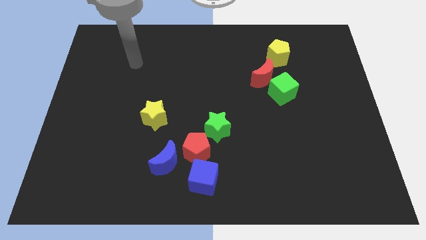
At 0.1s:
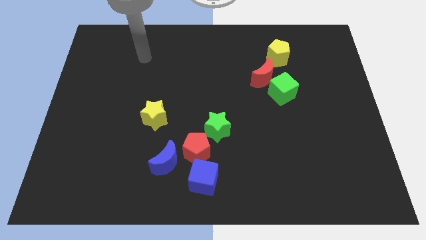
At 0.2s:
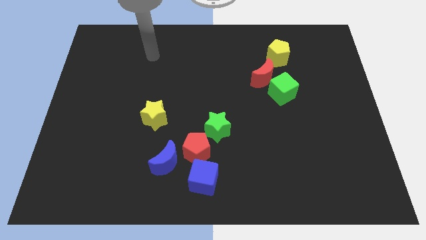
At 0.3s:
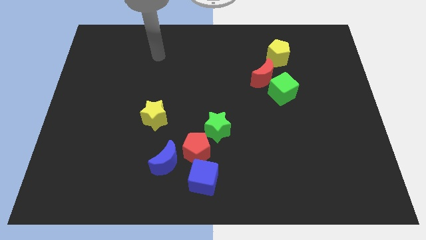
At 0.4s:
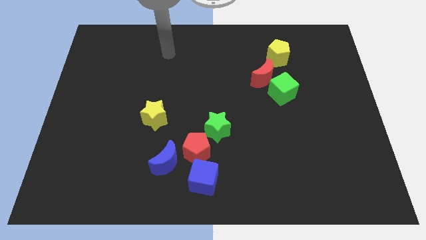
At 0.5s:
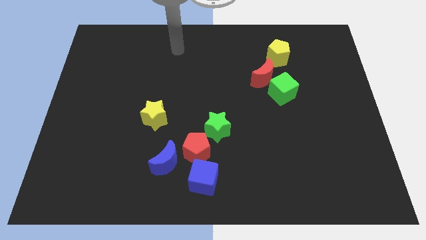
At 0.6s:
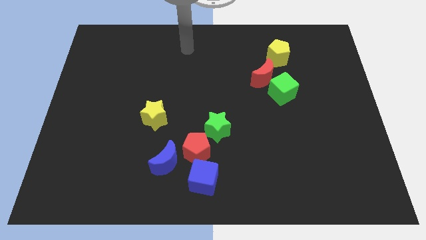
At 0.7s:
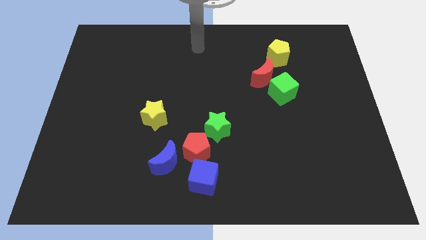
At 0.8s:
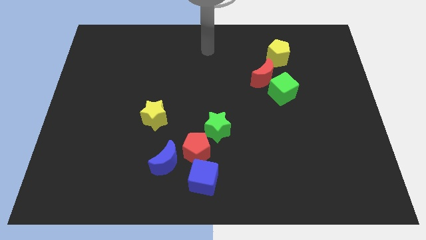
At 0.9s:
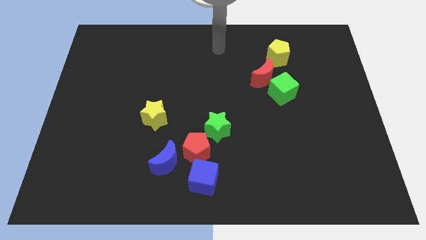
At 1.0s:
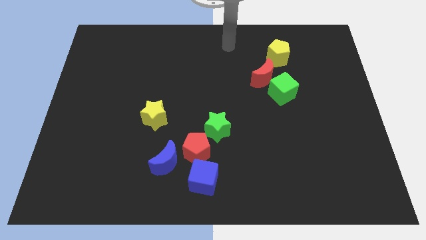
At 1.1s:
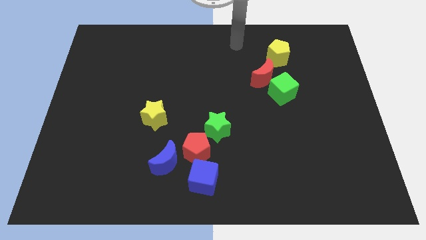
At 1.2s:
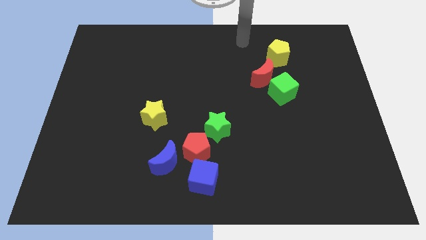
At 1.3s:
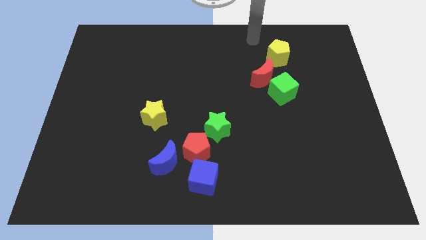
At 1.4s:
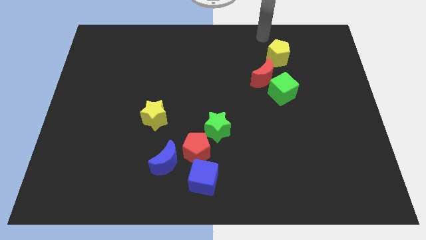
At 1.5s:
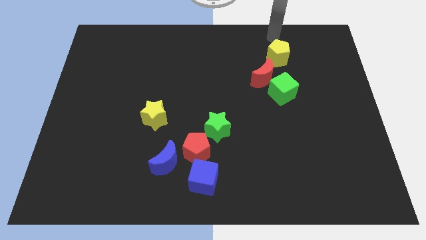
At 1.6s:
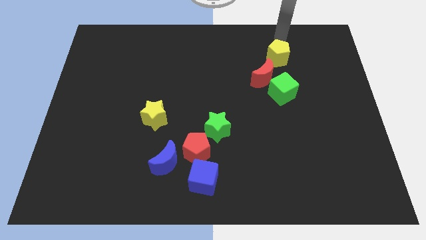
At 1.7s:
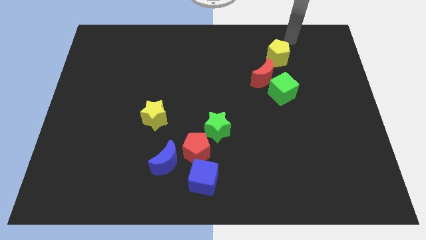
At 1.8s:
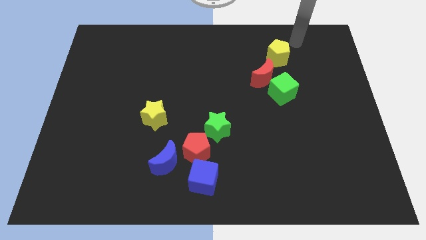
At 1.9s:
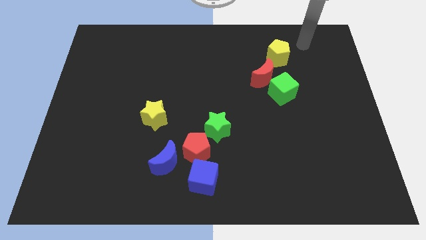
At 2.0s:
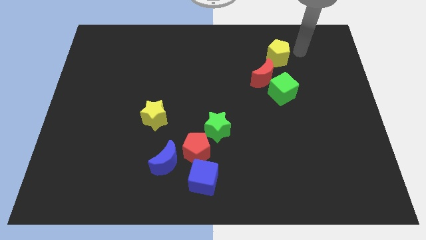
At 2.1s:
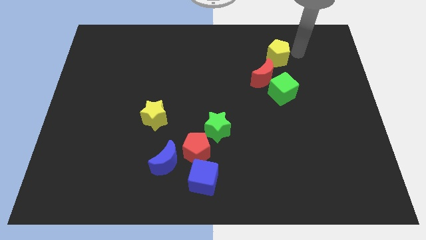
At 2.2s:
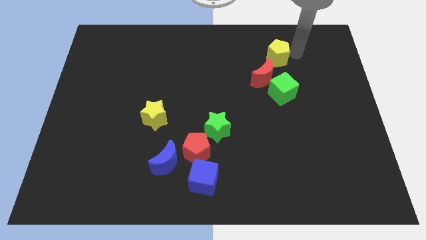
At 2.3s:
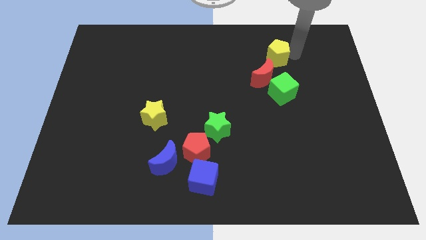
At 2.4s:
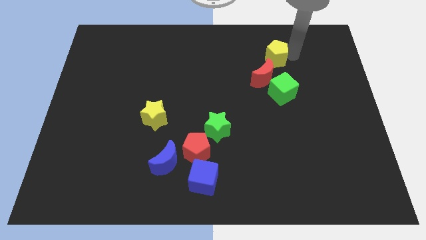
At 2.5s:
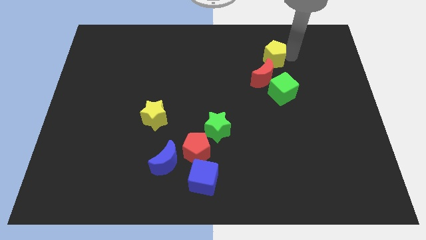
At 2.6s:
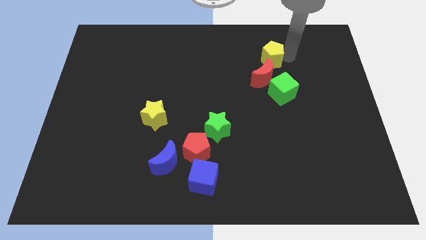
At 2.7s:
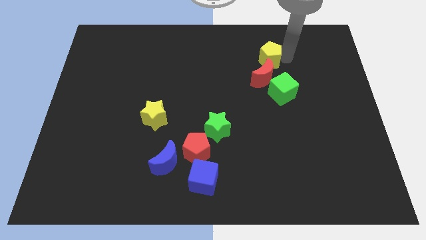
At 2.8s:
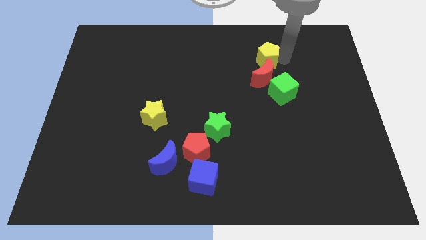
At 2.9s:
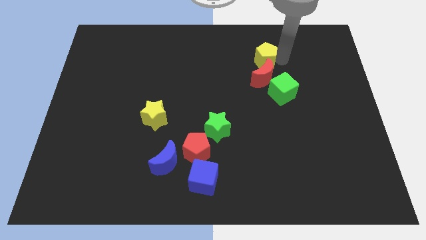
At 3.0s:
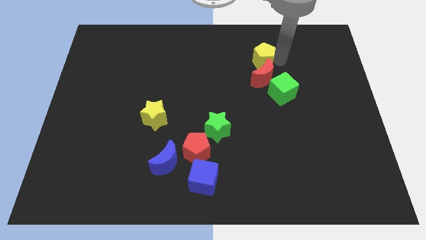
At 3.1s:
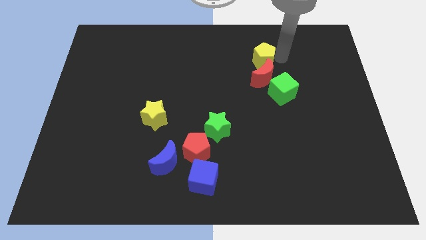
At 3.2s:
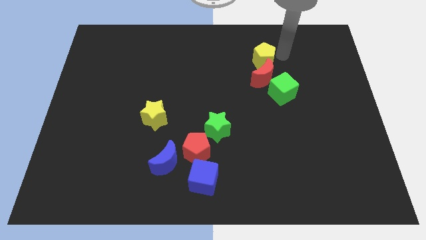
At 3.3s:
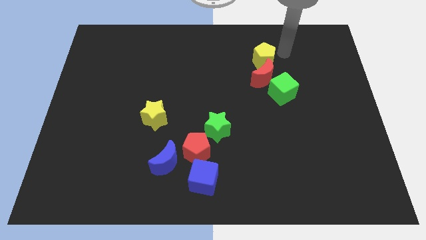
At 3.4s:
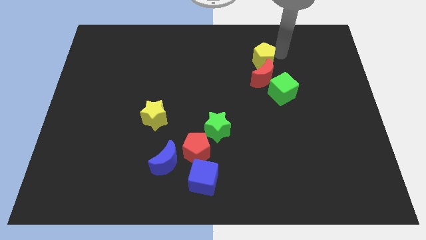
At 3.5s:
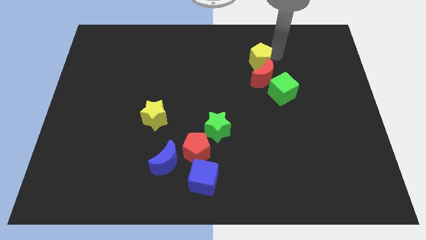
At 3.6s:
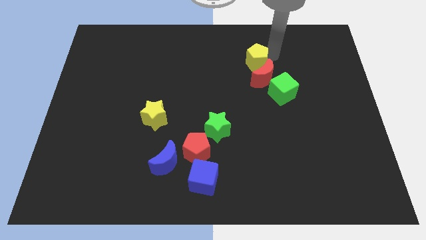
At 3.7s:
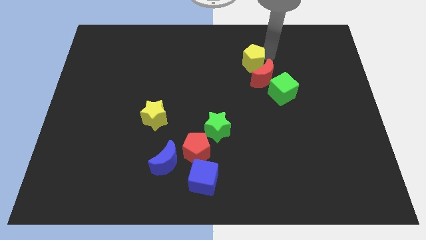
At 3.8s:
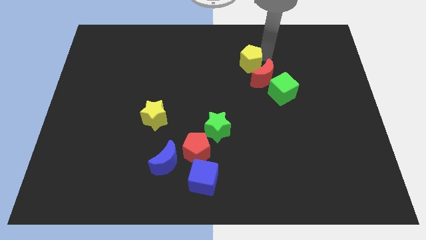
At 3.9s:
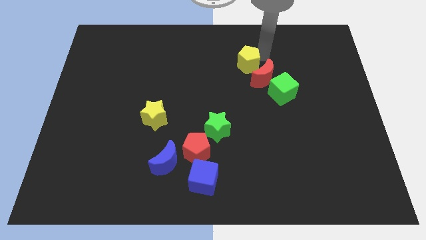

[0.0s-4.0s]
move the yellow pentagon a bit diagonally down and to the left

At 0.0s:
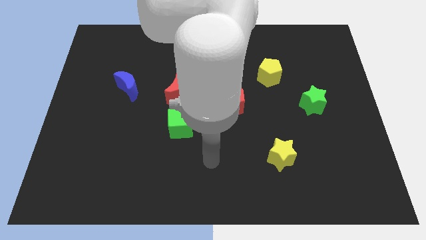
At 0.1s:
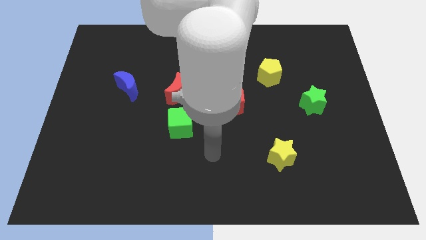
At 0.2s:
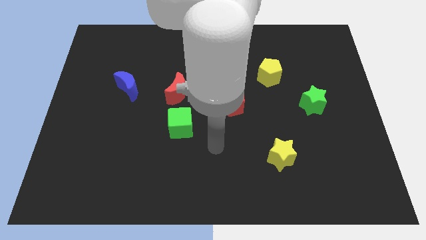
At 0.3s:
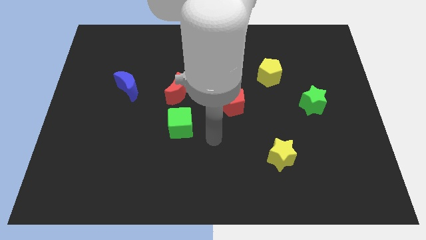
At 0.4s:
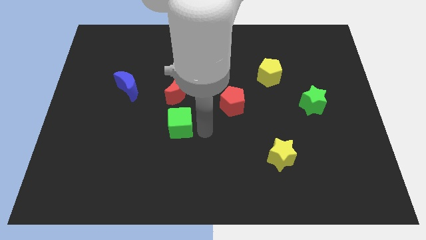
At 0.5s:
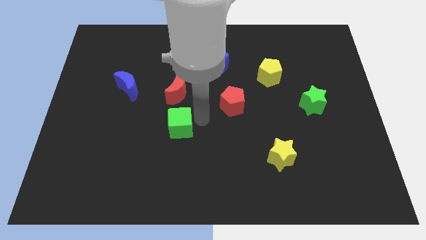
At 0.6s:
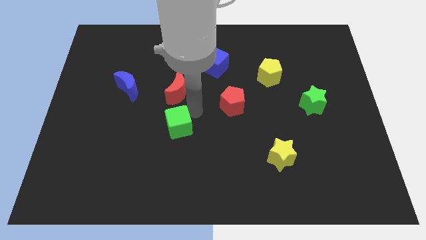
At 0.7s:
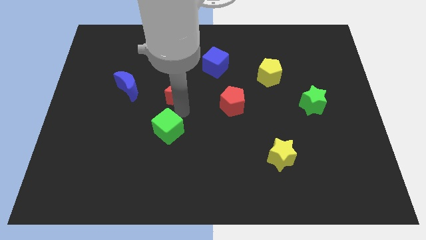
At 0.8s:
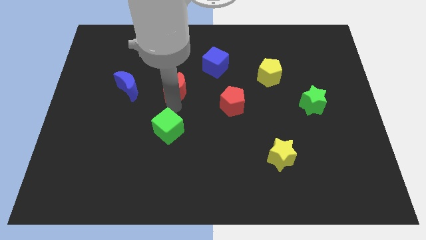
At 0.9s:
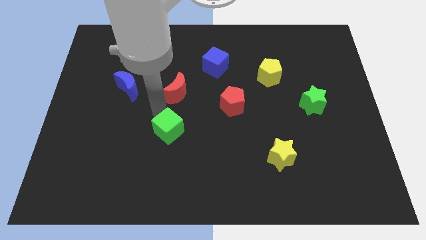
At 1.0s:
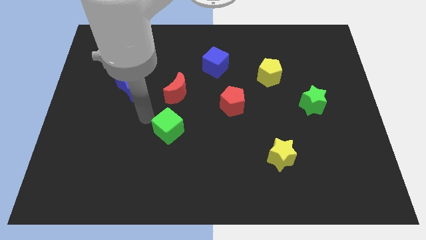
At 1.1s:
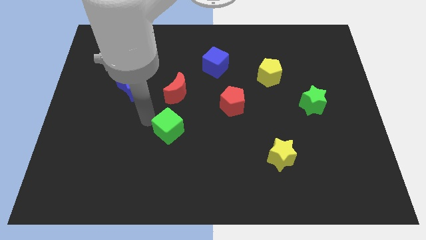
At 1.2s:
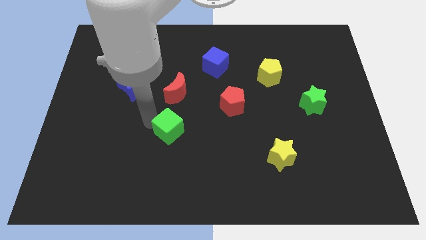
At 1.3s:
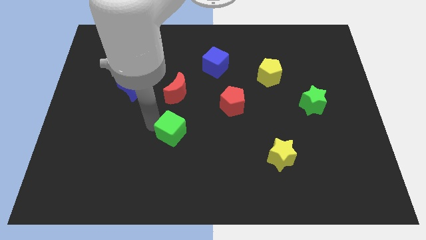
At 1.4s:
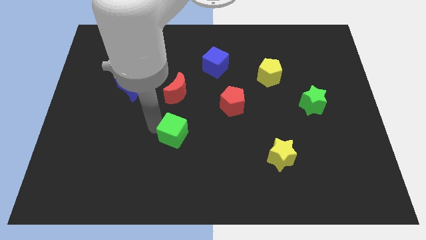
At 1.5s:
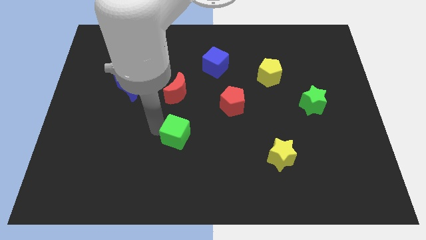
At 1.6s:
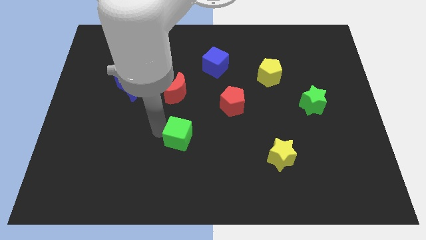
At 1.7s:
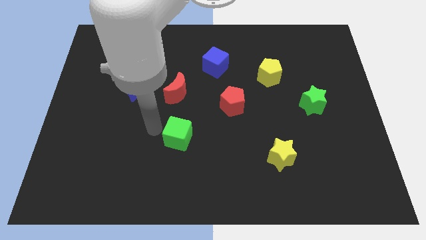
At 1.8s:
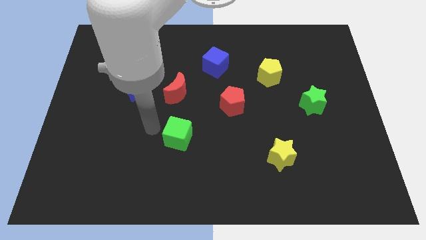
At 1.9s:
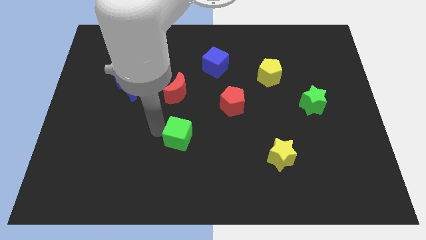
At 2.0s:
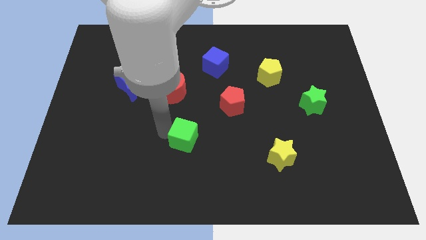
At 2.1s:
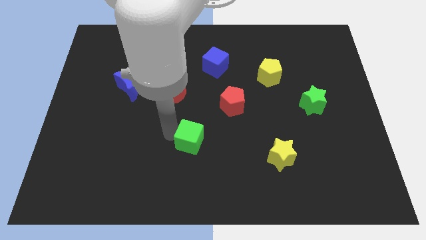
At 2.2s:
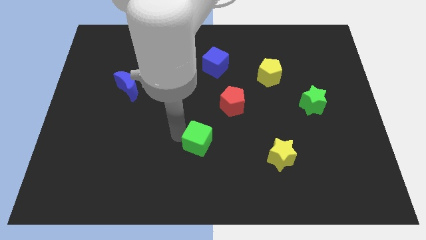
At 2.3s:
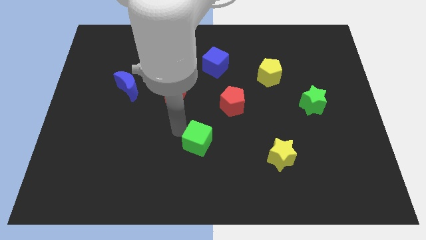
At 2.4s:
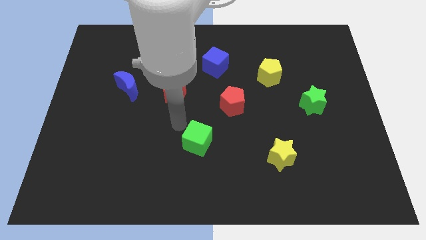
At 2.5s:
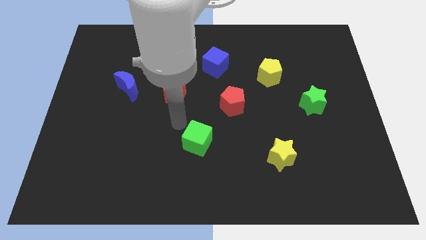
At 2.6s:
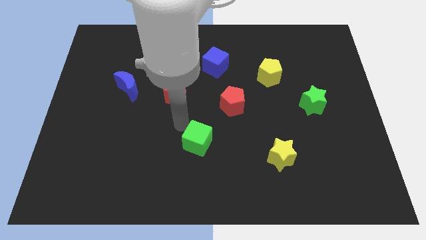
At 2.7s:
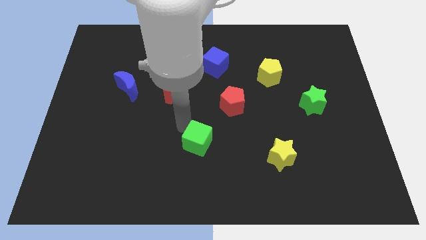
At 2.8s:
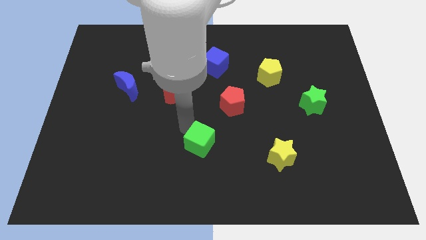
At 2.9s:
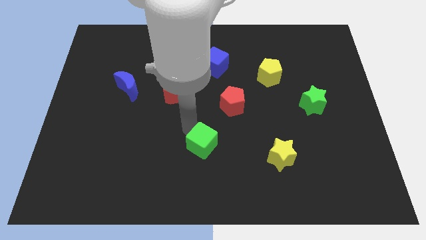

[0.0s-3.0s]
push the green cube downwards and to the right diagonally a bit

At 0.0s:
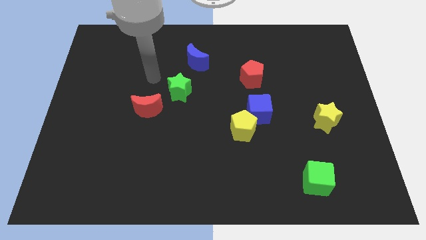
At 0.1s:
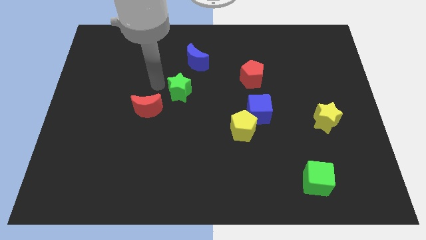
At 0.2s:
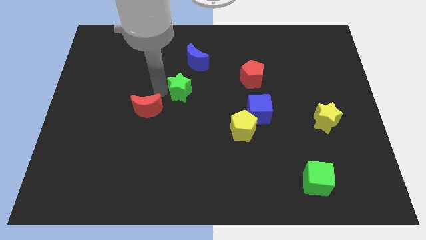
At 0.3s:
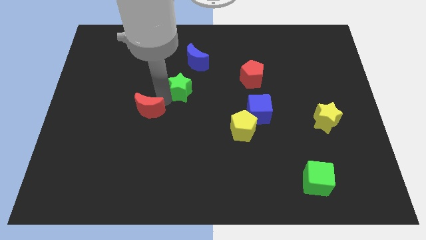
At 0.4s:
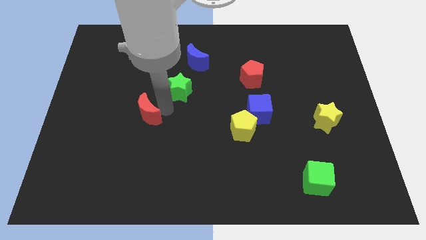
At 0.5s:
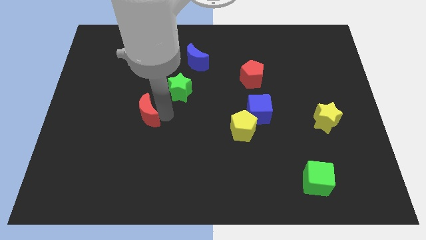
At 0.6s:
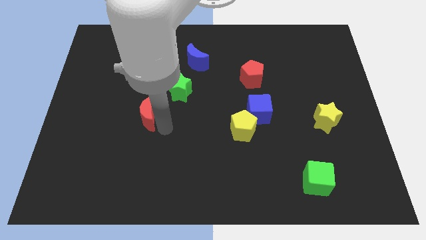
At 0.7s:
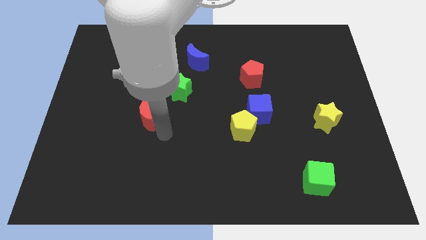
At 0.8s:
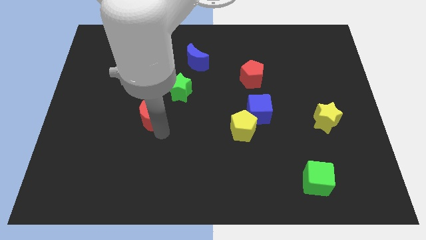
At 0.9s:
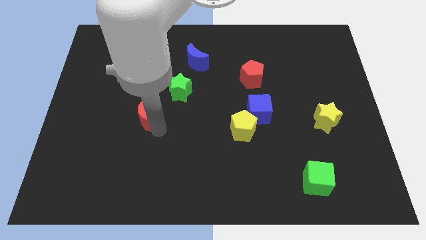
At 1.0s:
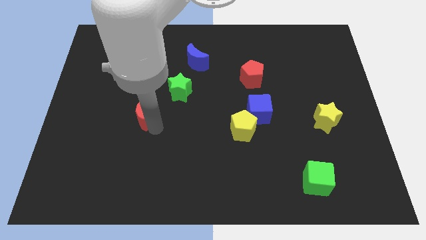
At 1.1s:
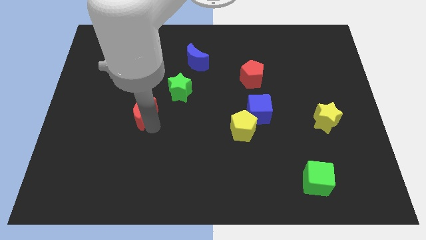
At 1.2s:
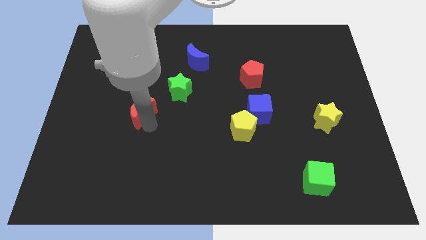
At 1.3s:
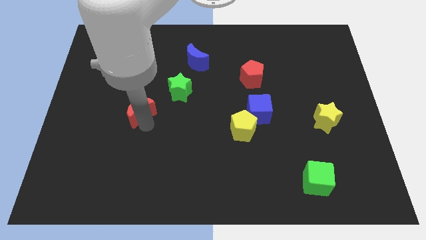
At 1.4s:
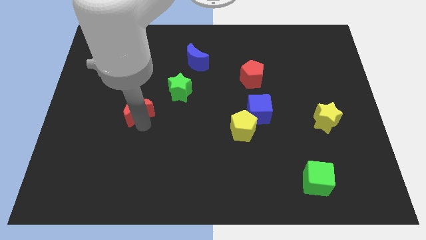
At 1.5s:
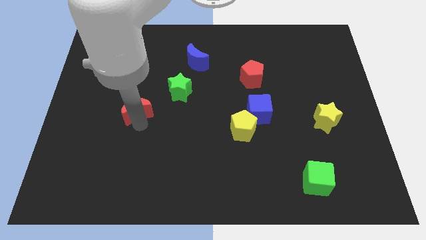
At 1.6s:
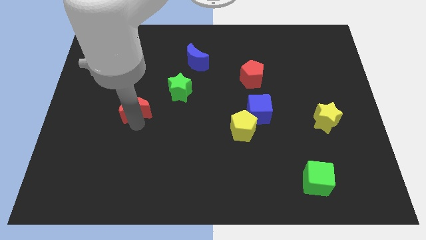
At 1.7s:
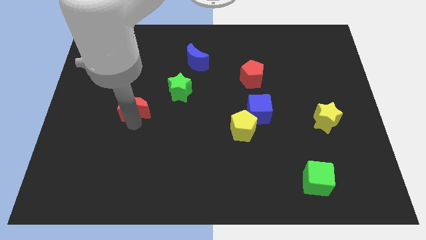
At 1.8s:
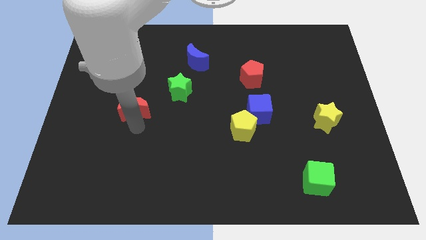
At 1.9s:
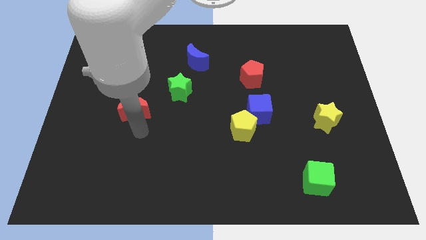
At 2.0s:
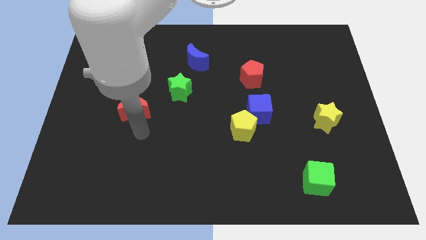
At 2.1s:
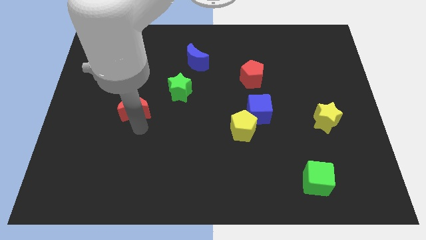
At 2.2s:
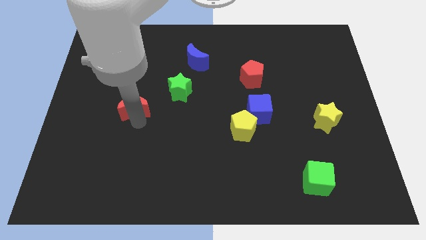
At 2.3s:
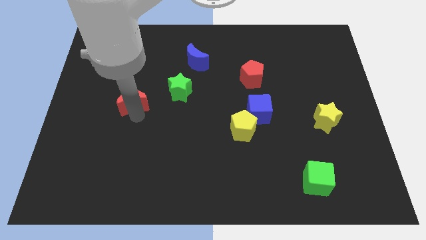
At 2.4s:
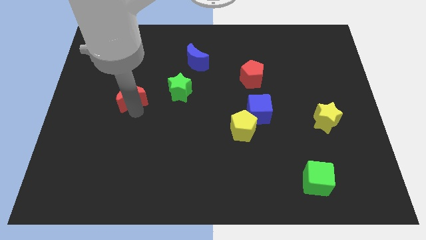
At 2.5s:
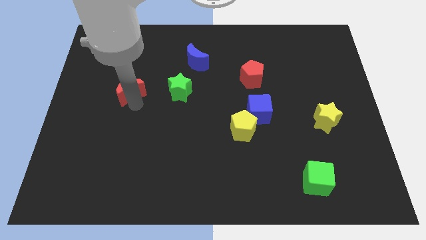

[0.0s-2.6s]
slightly slide the red moon diagonally up and to the left
